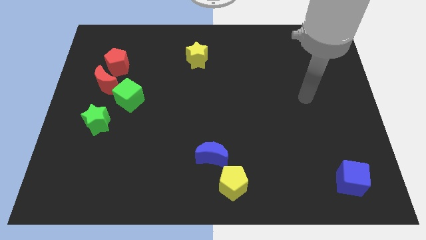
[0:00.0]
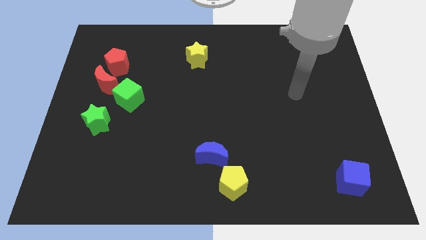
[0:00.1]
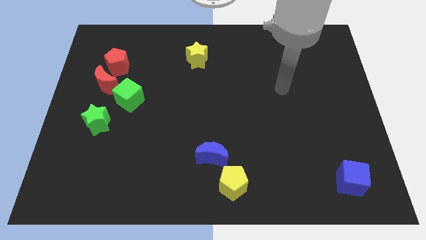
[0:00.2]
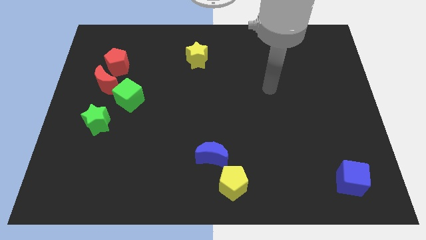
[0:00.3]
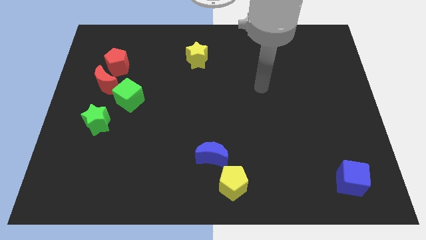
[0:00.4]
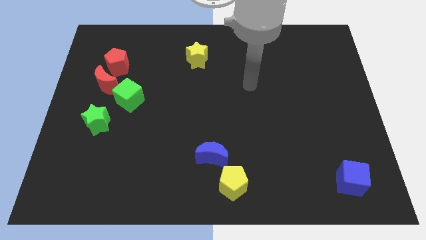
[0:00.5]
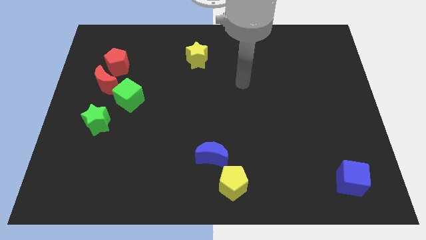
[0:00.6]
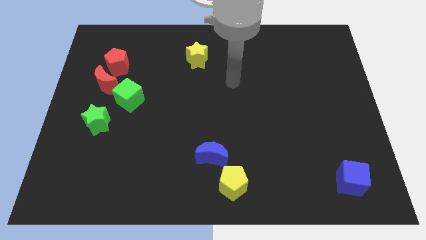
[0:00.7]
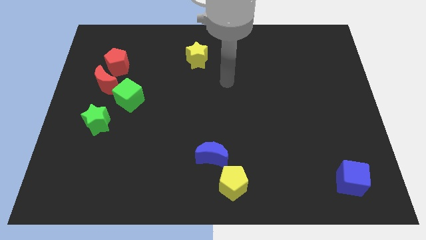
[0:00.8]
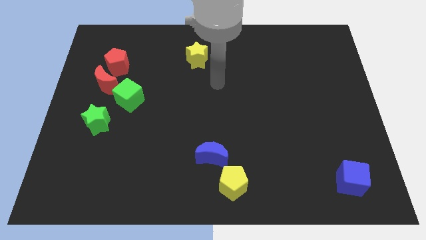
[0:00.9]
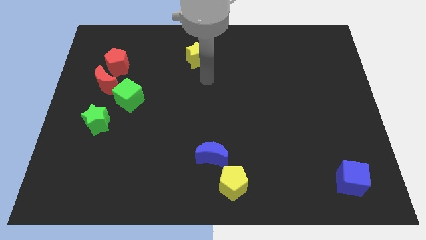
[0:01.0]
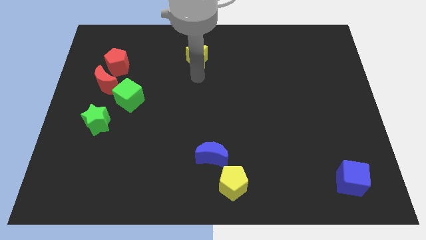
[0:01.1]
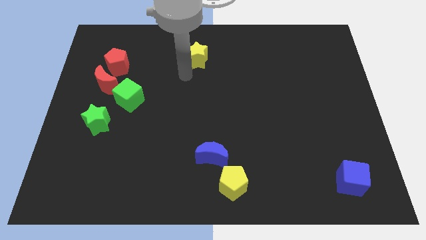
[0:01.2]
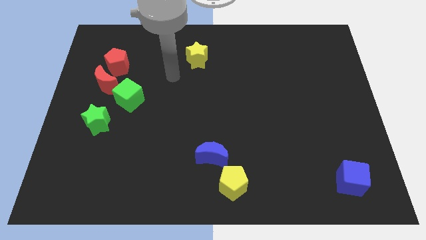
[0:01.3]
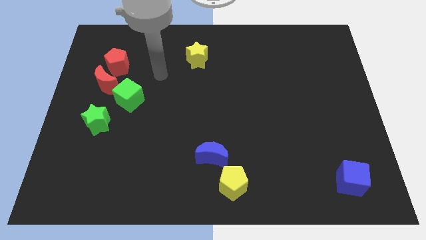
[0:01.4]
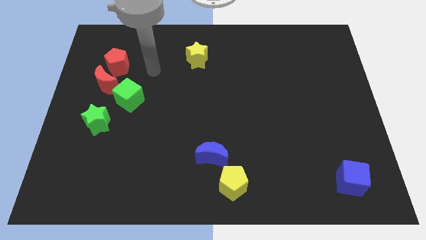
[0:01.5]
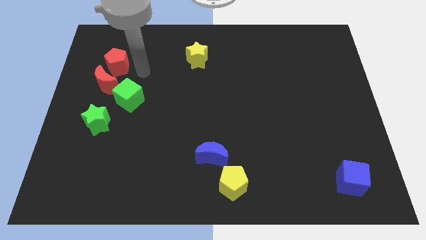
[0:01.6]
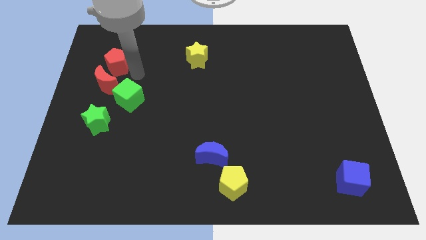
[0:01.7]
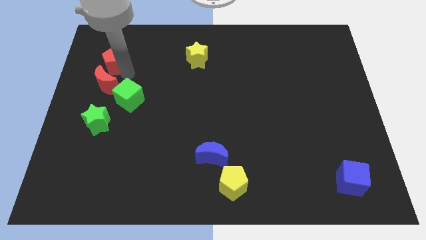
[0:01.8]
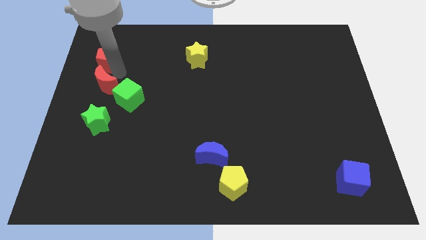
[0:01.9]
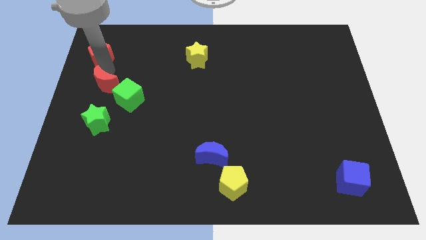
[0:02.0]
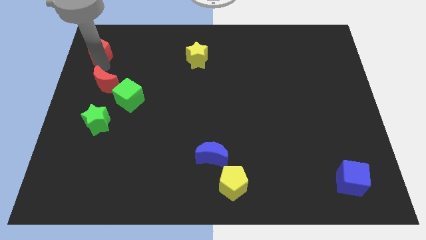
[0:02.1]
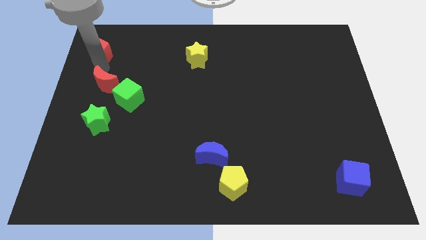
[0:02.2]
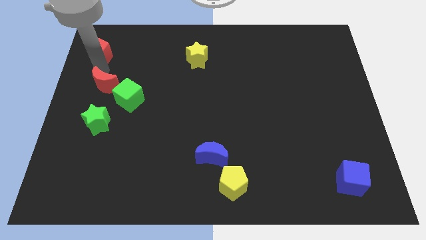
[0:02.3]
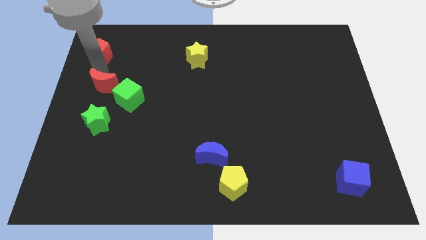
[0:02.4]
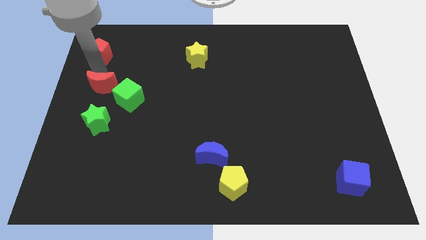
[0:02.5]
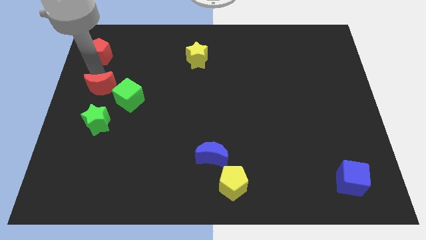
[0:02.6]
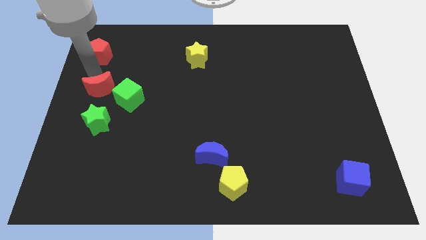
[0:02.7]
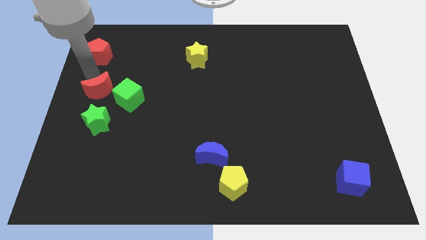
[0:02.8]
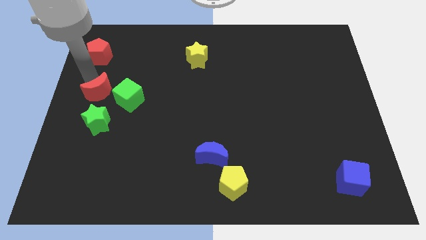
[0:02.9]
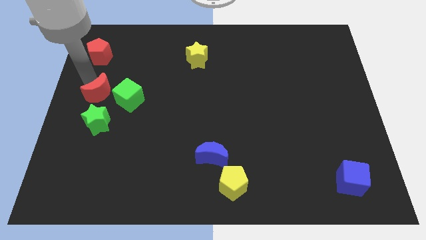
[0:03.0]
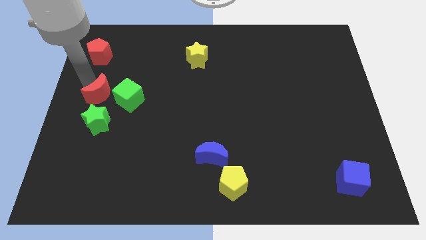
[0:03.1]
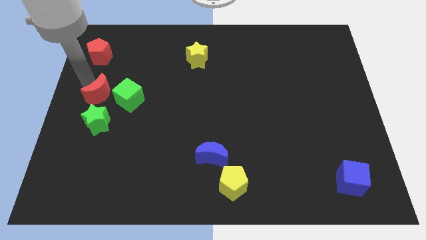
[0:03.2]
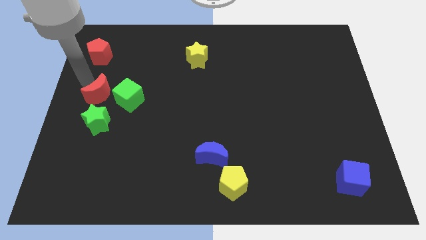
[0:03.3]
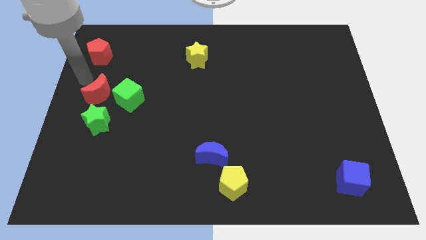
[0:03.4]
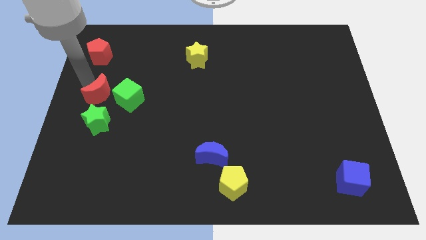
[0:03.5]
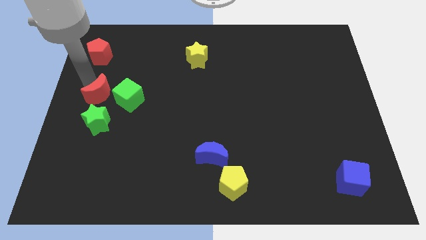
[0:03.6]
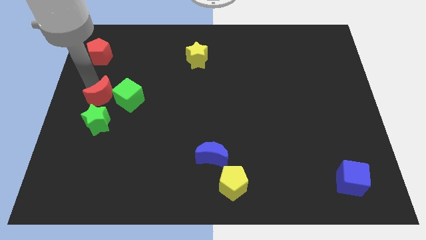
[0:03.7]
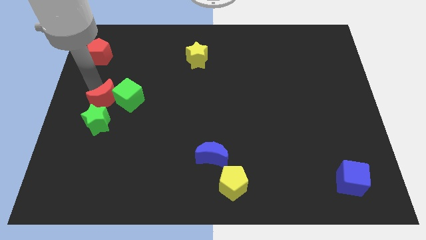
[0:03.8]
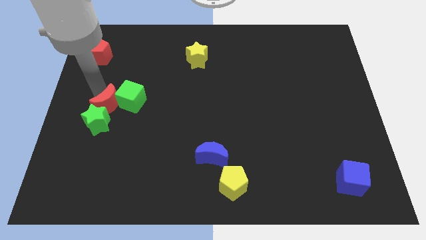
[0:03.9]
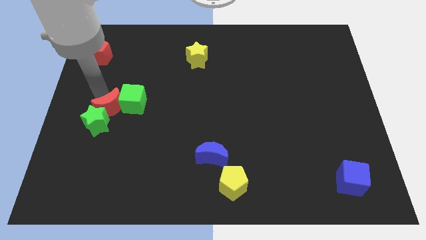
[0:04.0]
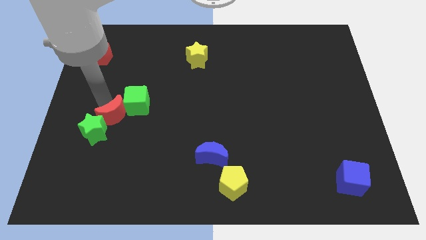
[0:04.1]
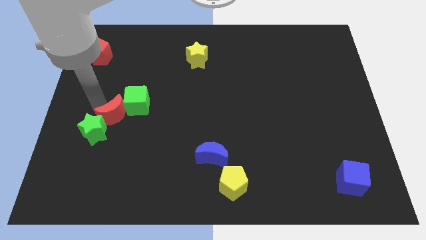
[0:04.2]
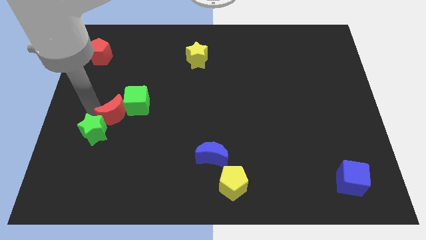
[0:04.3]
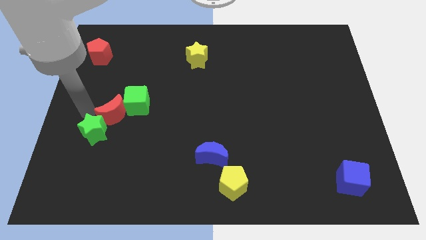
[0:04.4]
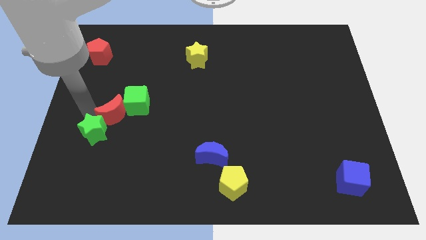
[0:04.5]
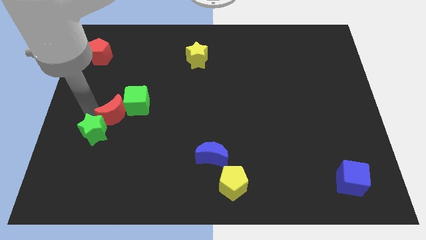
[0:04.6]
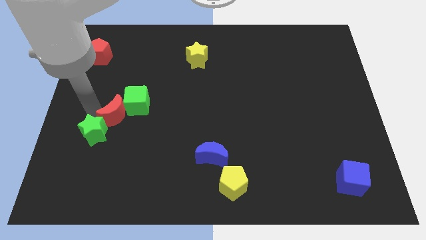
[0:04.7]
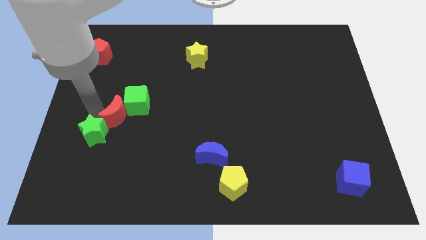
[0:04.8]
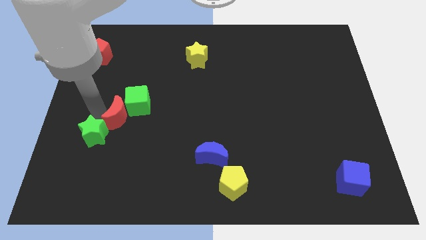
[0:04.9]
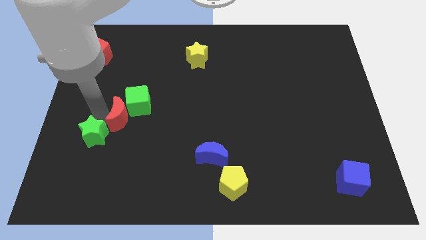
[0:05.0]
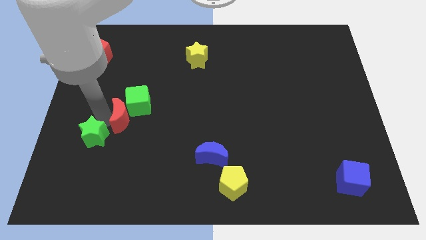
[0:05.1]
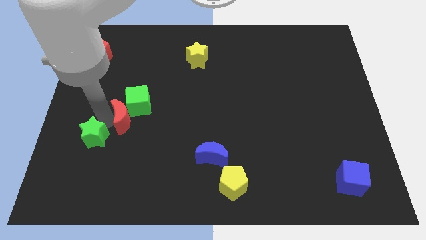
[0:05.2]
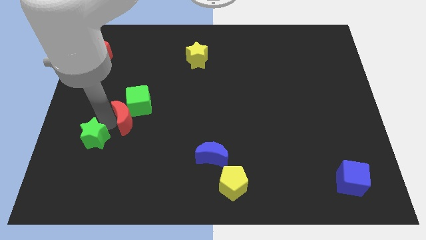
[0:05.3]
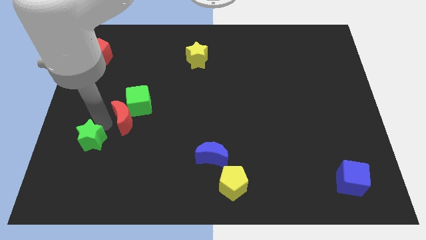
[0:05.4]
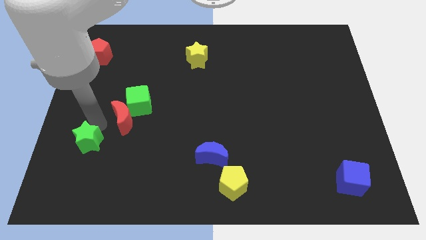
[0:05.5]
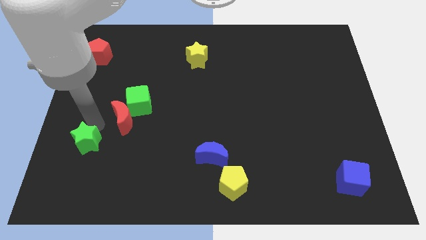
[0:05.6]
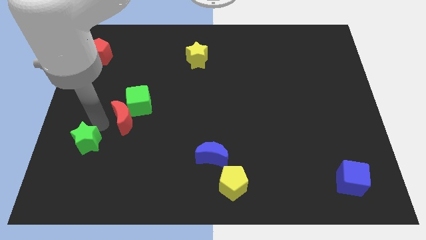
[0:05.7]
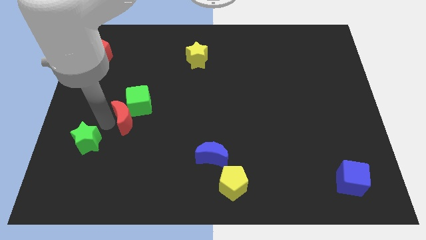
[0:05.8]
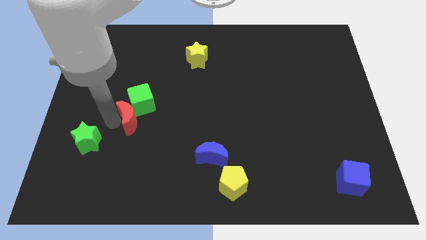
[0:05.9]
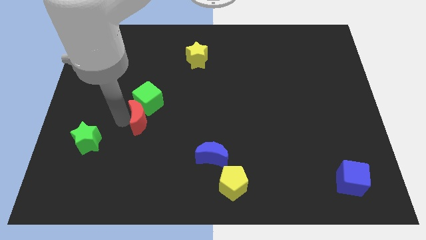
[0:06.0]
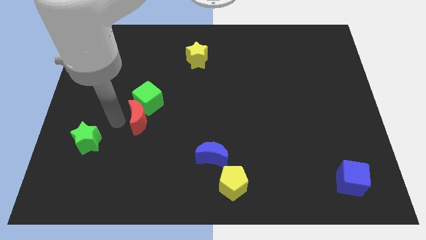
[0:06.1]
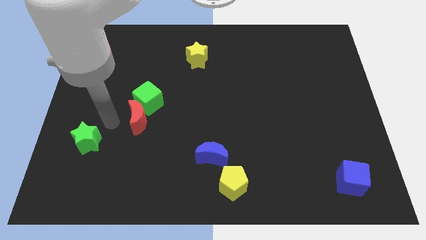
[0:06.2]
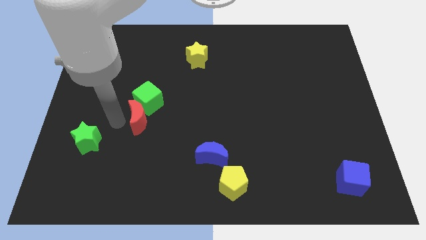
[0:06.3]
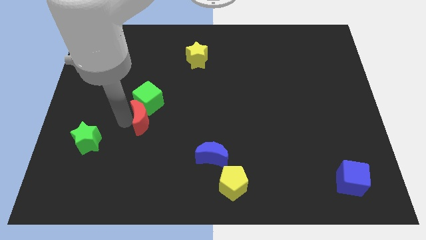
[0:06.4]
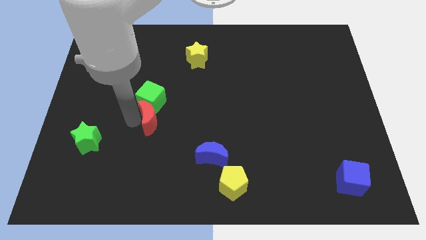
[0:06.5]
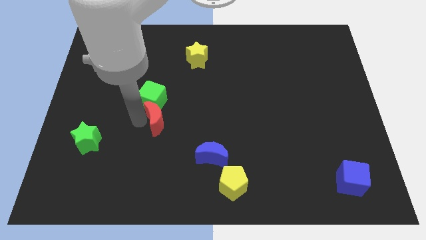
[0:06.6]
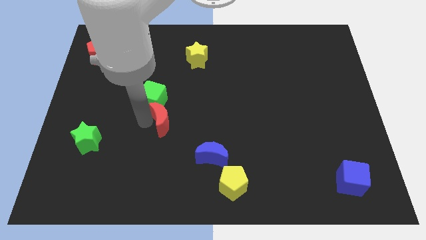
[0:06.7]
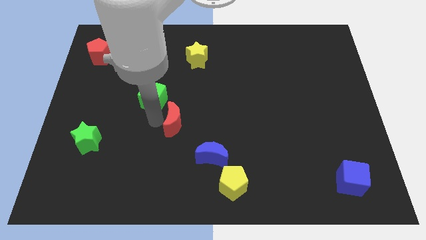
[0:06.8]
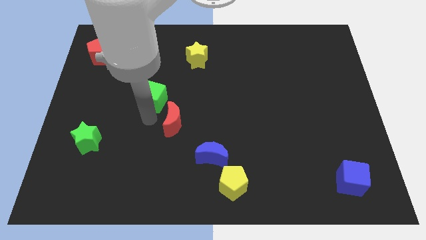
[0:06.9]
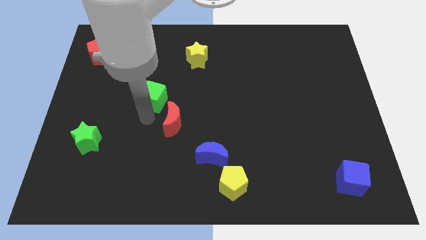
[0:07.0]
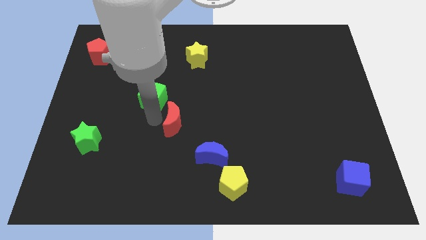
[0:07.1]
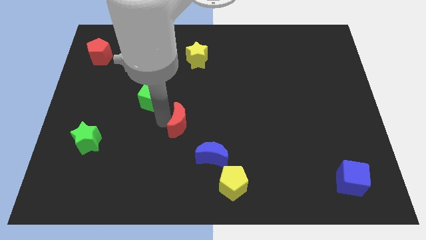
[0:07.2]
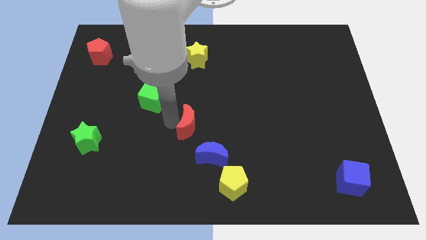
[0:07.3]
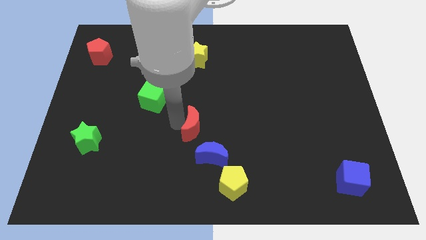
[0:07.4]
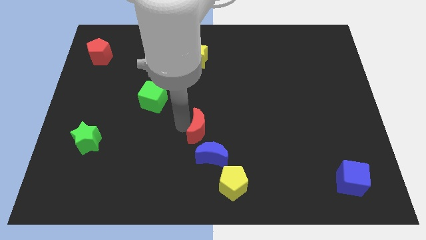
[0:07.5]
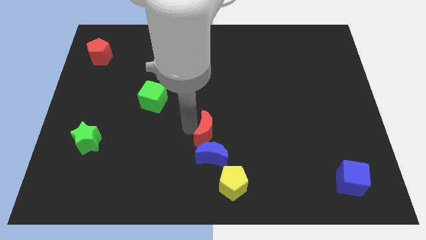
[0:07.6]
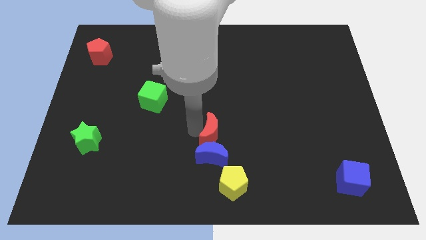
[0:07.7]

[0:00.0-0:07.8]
move the red moon to the top right side of the blue moon
